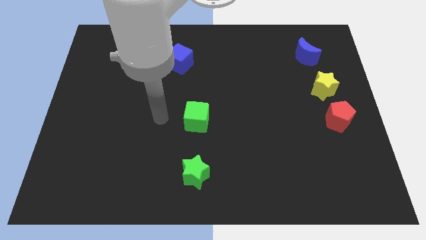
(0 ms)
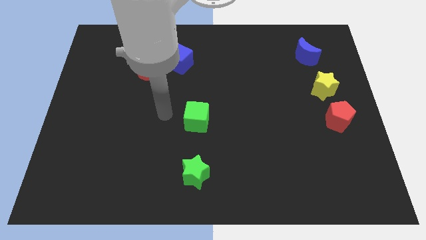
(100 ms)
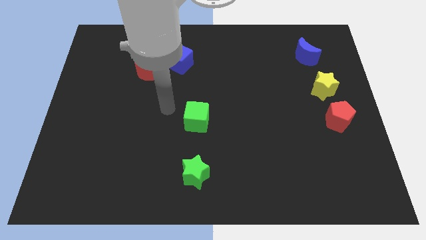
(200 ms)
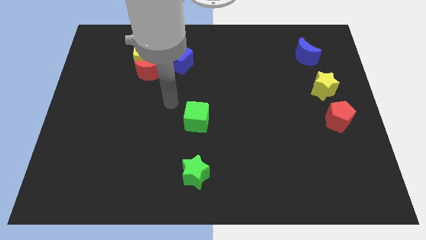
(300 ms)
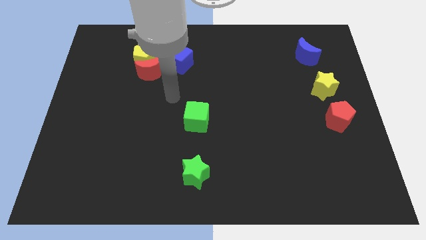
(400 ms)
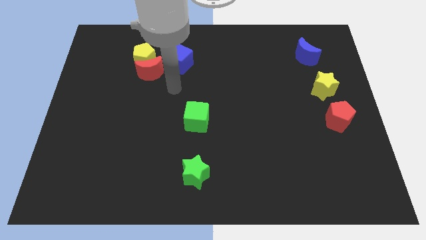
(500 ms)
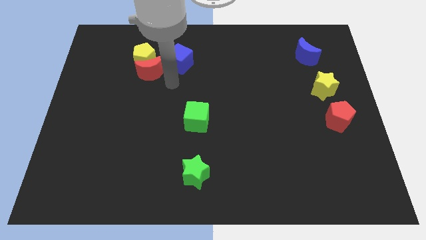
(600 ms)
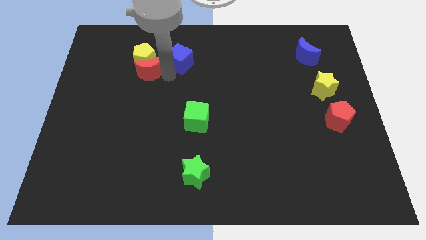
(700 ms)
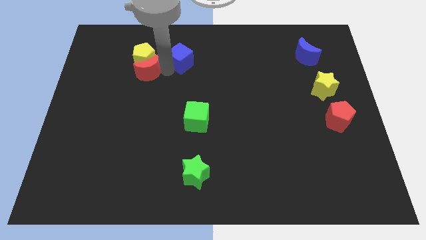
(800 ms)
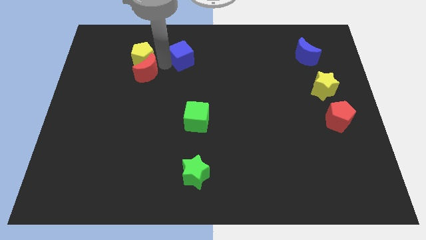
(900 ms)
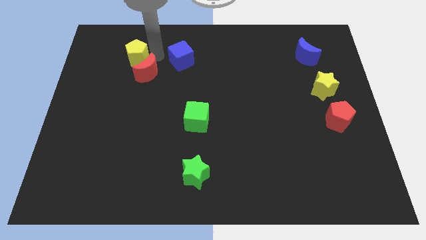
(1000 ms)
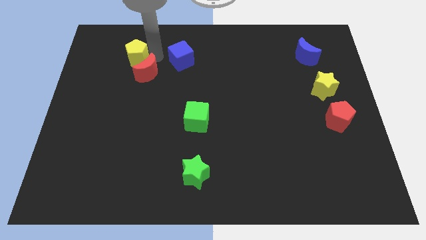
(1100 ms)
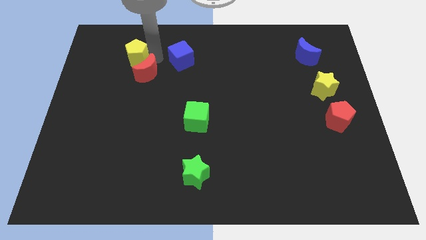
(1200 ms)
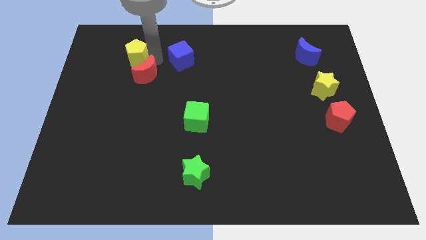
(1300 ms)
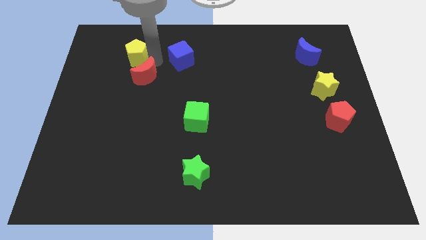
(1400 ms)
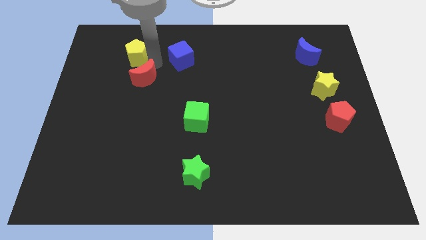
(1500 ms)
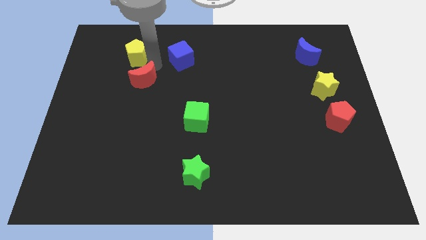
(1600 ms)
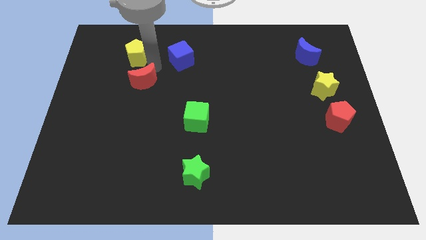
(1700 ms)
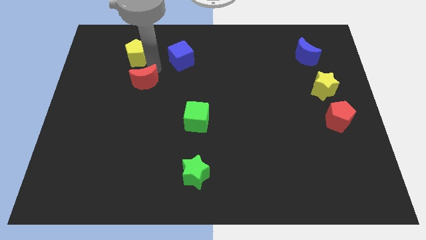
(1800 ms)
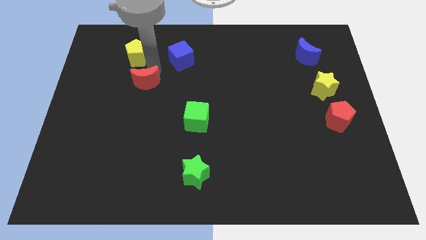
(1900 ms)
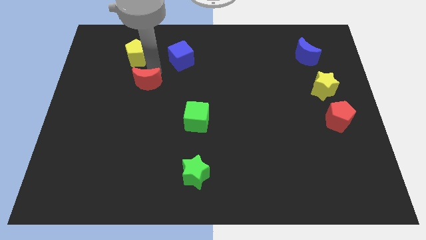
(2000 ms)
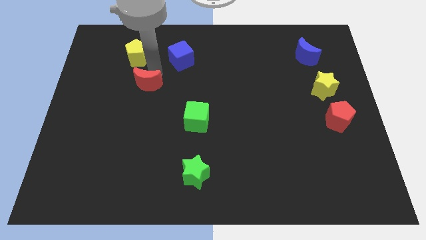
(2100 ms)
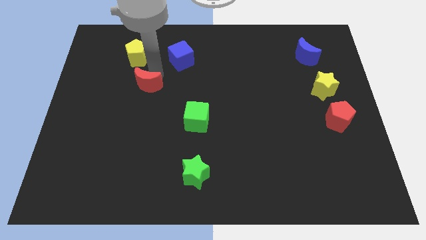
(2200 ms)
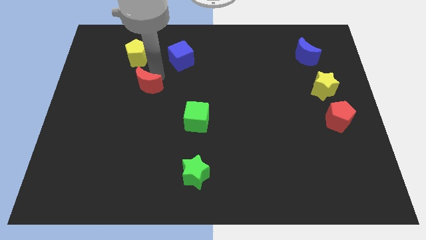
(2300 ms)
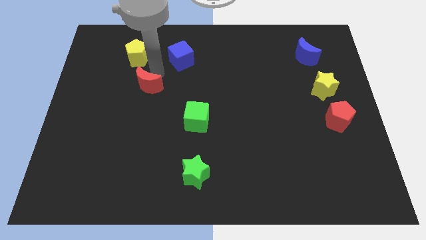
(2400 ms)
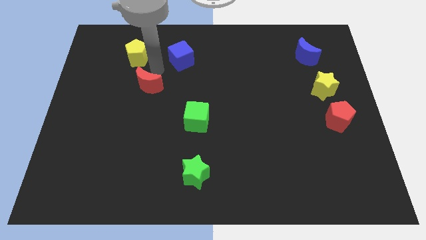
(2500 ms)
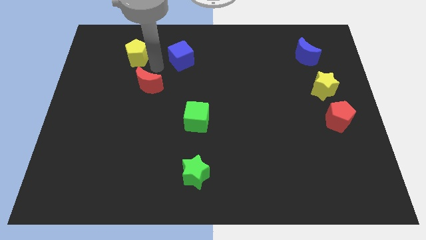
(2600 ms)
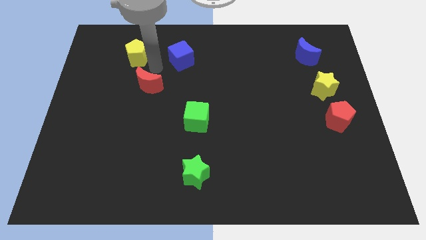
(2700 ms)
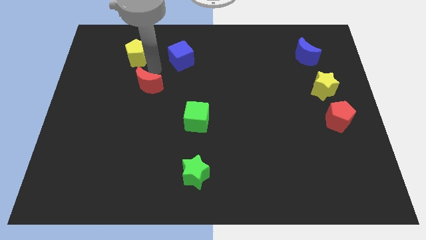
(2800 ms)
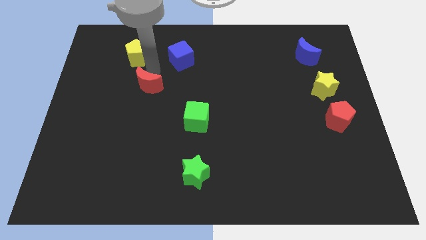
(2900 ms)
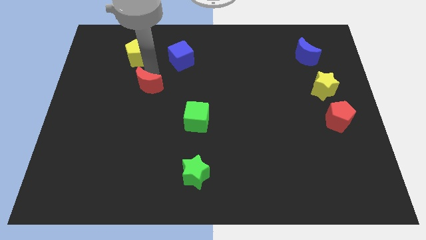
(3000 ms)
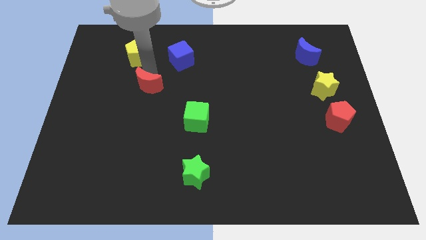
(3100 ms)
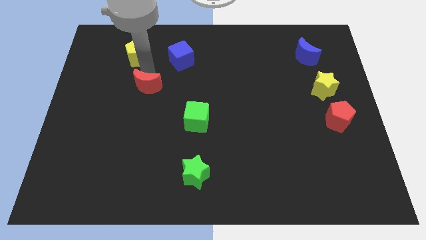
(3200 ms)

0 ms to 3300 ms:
move the red moon away from the yellow pentagon and blue cube

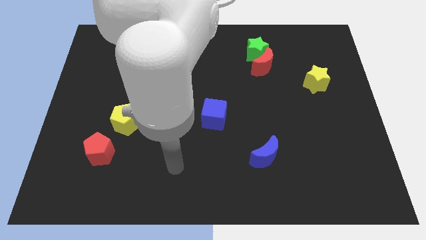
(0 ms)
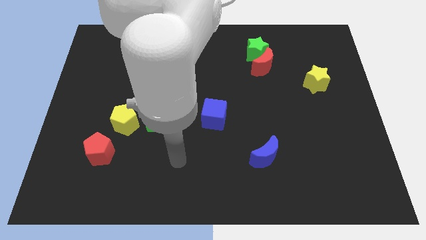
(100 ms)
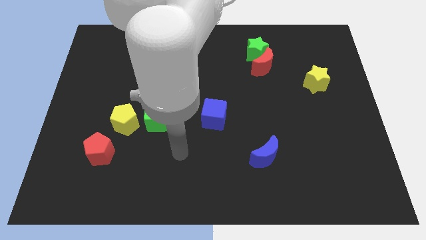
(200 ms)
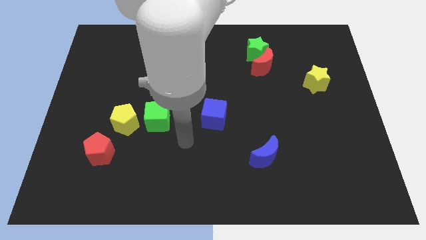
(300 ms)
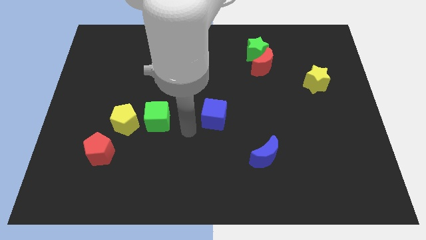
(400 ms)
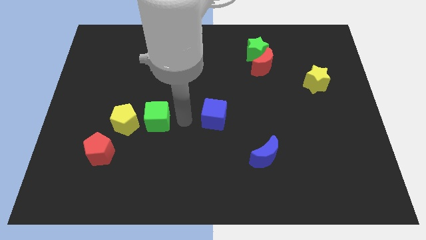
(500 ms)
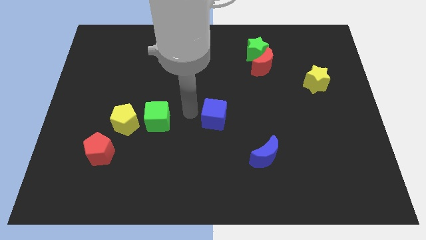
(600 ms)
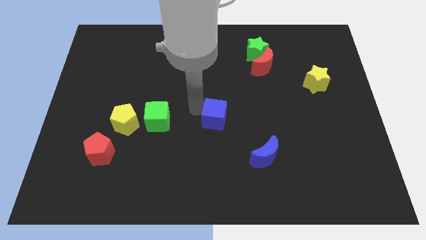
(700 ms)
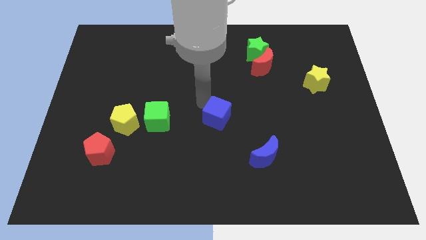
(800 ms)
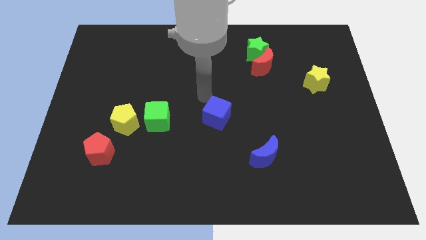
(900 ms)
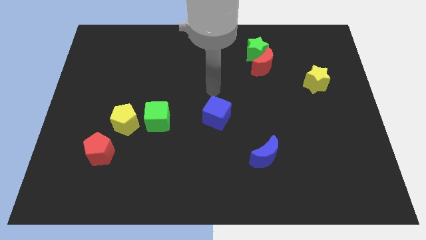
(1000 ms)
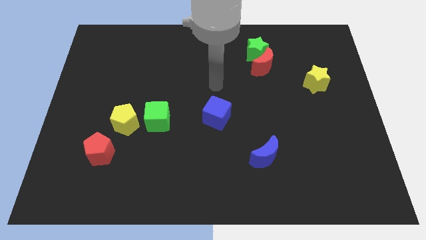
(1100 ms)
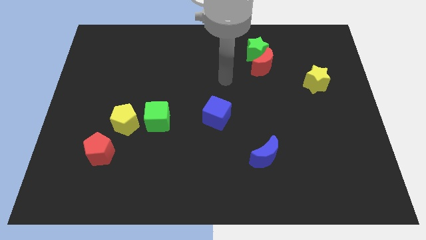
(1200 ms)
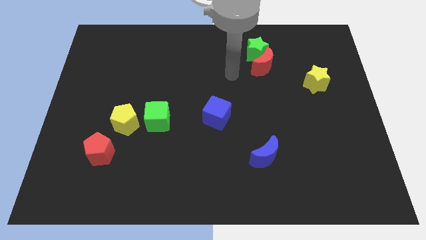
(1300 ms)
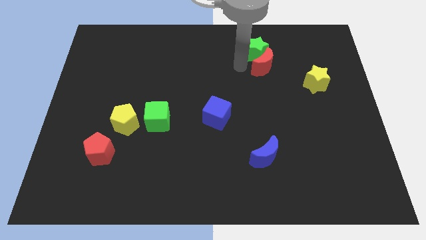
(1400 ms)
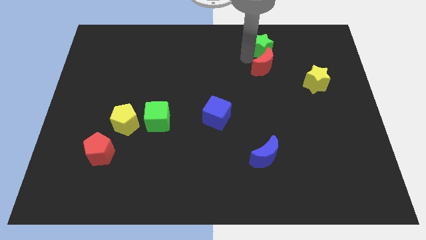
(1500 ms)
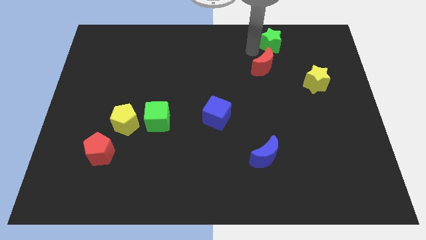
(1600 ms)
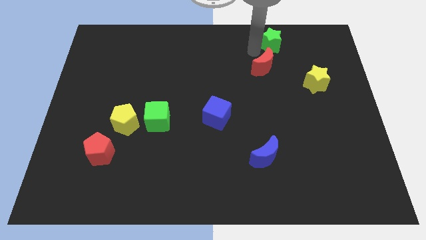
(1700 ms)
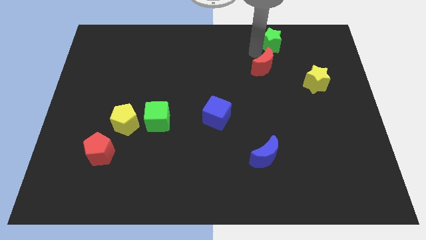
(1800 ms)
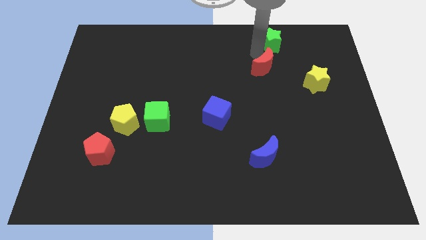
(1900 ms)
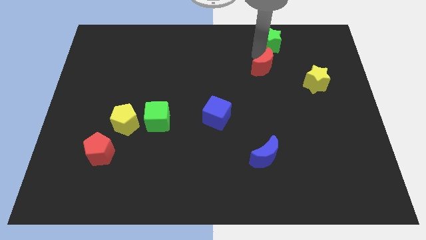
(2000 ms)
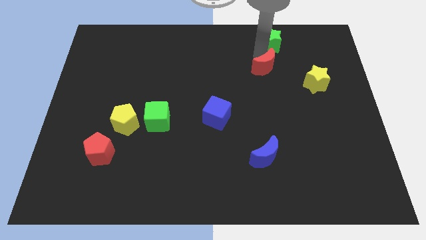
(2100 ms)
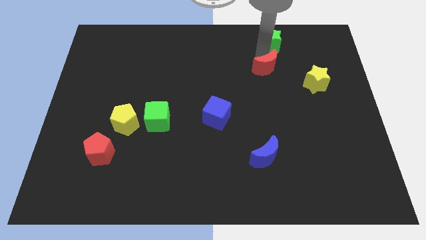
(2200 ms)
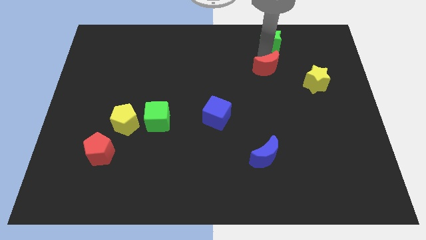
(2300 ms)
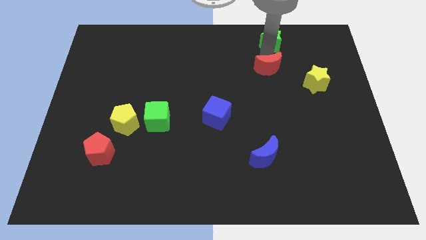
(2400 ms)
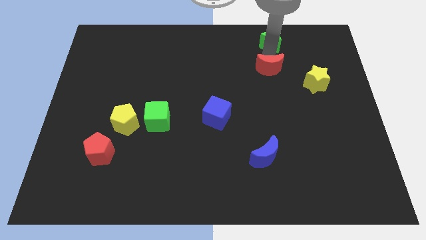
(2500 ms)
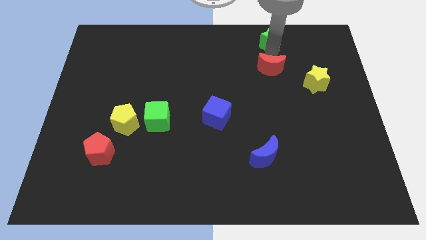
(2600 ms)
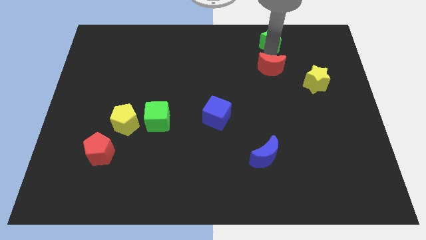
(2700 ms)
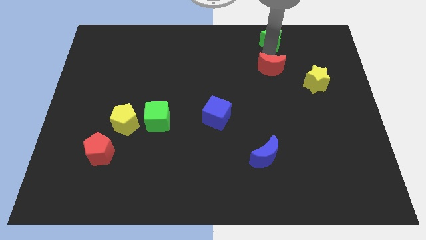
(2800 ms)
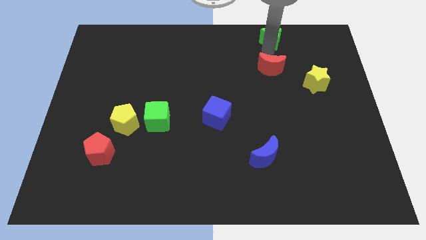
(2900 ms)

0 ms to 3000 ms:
move the red moon away from the green star

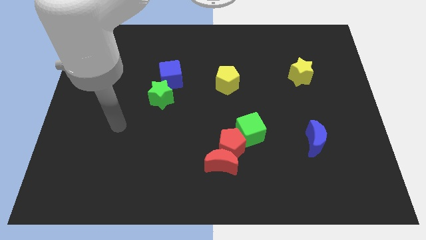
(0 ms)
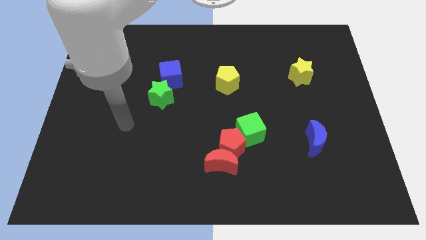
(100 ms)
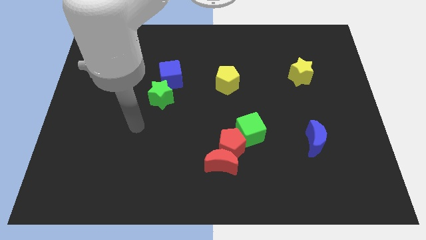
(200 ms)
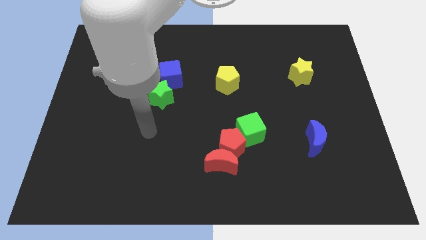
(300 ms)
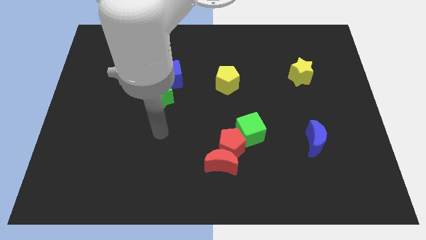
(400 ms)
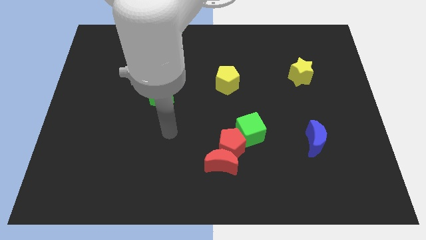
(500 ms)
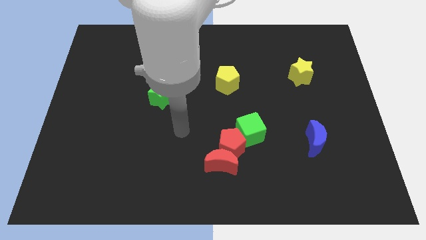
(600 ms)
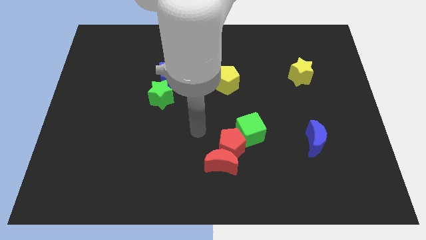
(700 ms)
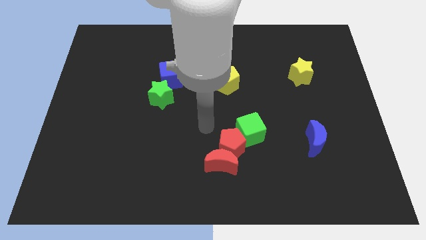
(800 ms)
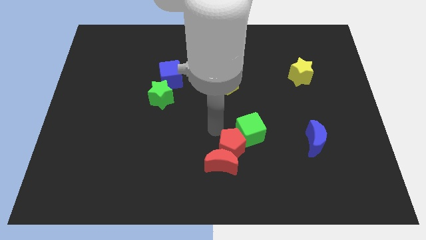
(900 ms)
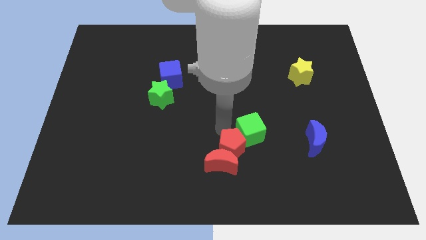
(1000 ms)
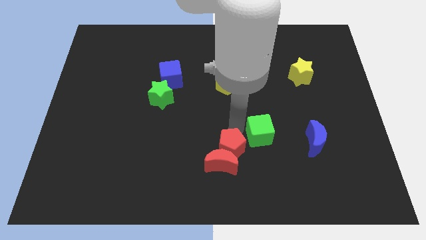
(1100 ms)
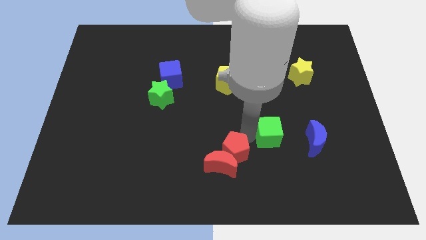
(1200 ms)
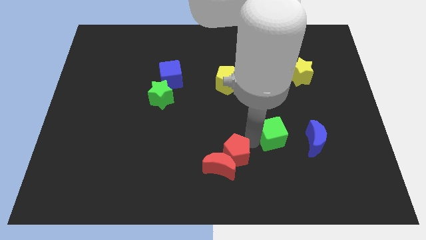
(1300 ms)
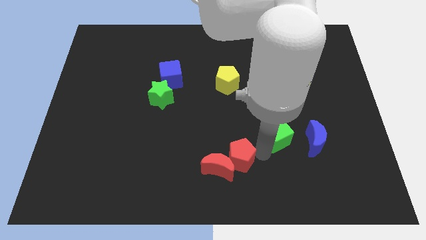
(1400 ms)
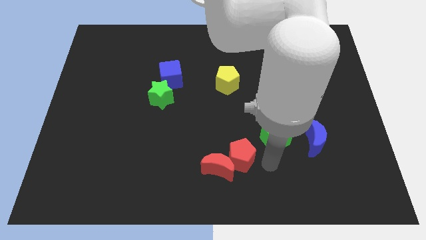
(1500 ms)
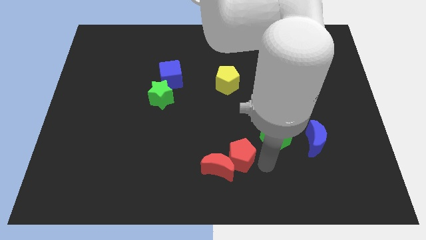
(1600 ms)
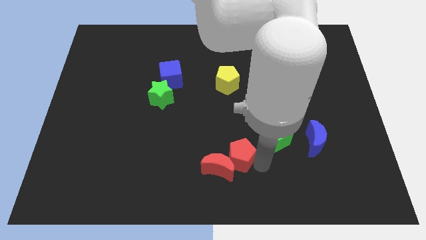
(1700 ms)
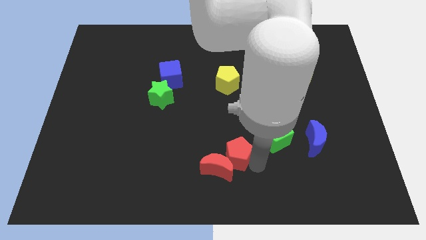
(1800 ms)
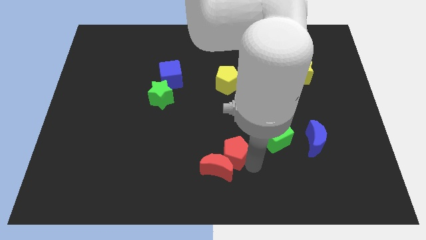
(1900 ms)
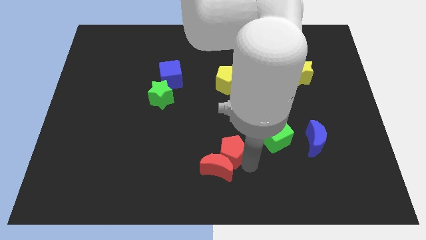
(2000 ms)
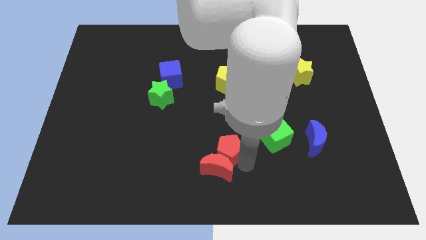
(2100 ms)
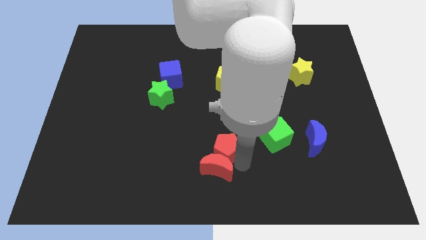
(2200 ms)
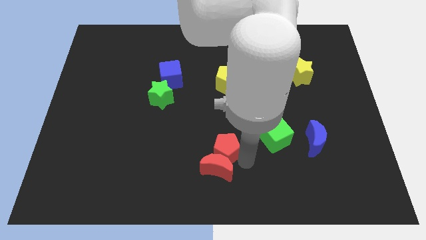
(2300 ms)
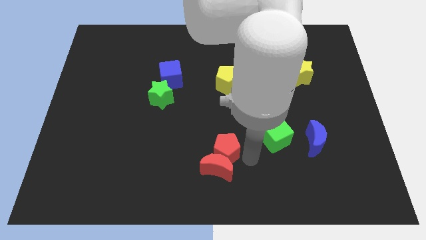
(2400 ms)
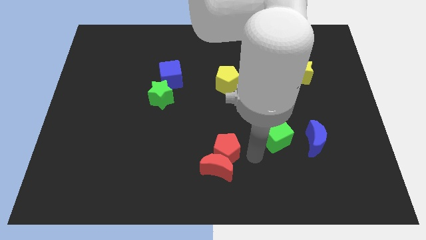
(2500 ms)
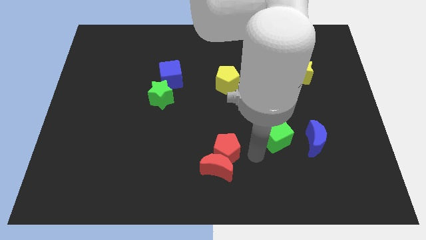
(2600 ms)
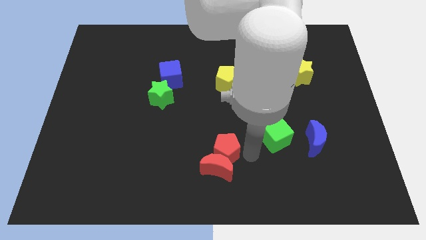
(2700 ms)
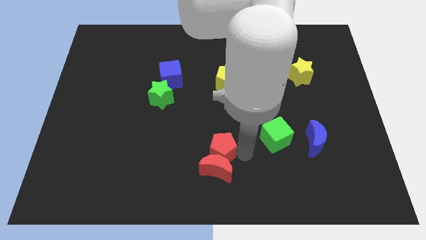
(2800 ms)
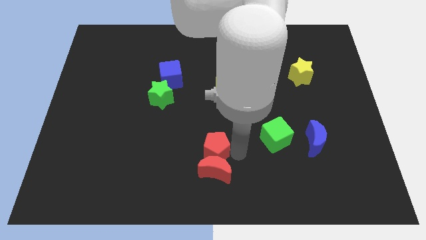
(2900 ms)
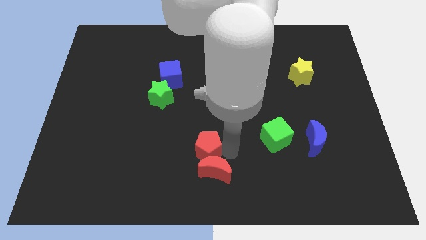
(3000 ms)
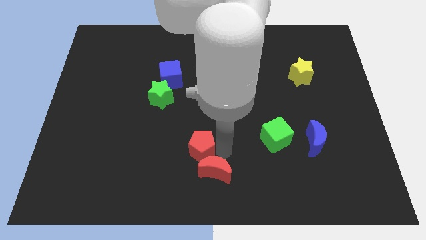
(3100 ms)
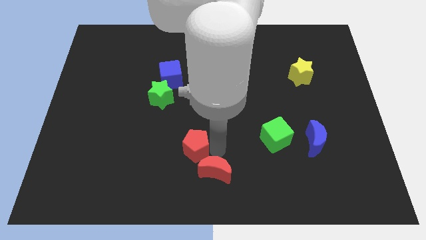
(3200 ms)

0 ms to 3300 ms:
move the red pentagon away from the red moon and green cube
